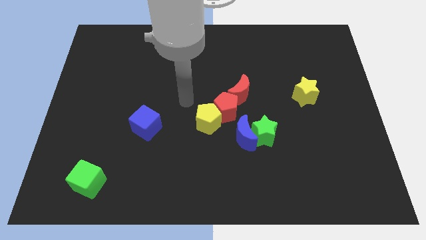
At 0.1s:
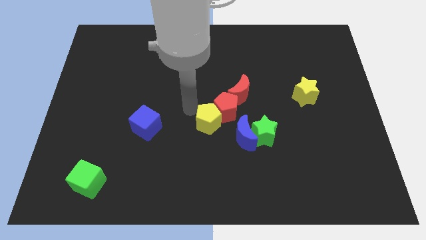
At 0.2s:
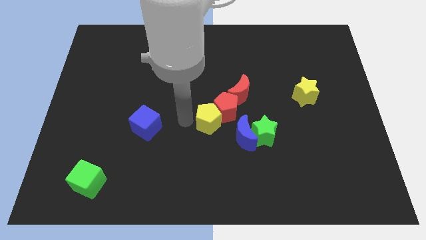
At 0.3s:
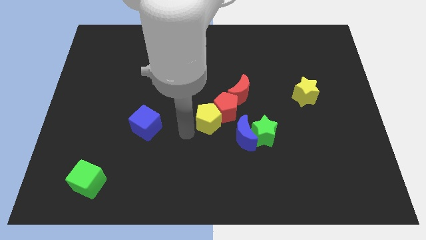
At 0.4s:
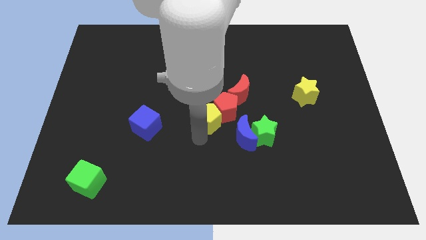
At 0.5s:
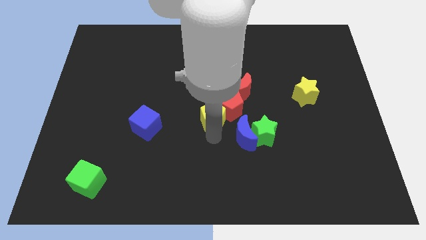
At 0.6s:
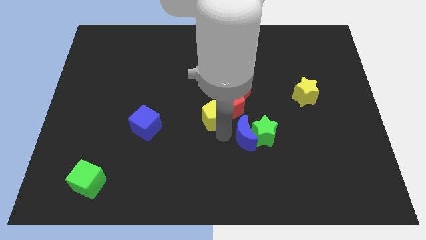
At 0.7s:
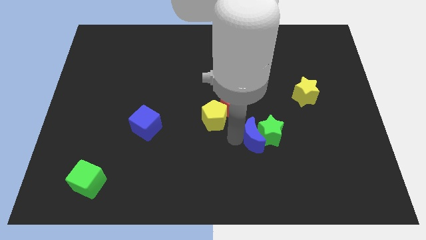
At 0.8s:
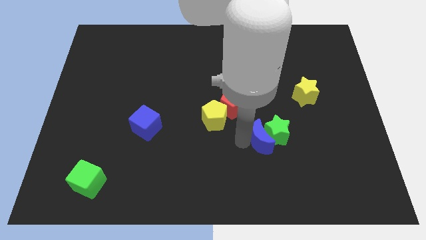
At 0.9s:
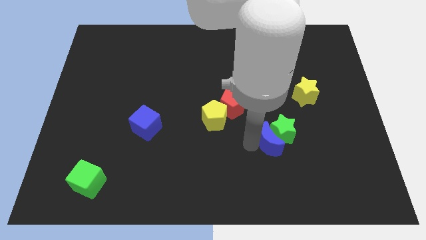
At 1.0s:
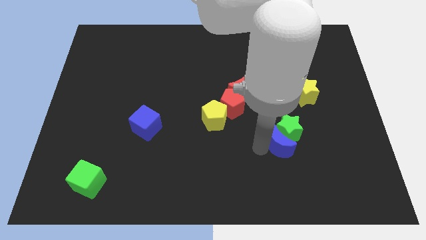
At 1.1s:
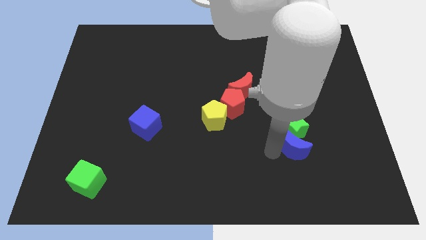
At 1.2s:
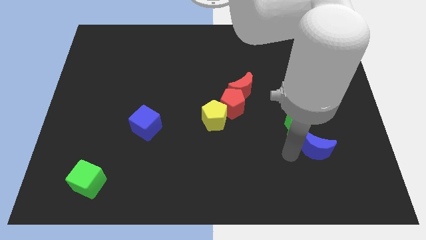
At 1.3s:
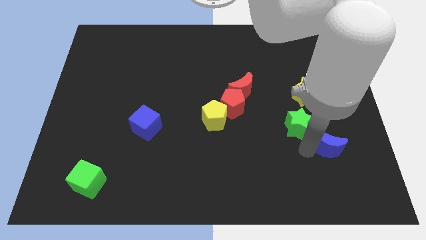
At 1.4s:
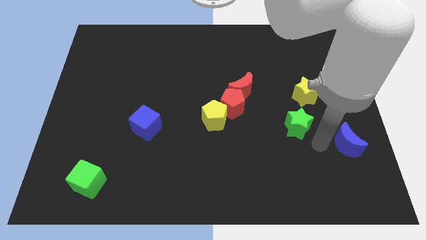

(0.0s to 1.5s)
pull the green star apart from the blue moon

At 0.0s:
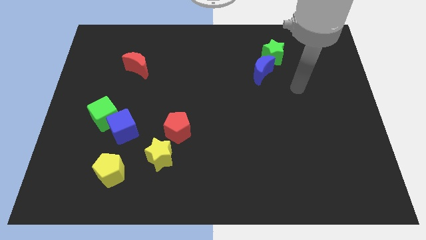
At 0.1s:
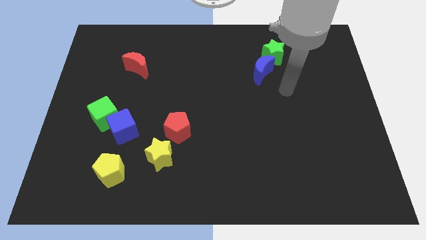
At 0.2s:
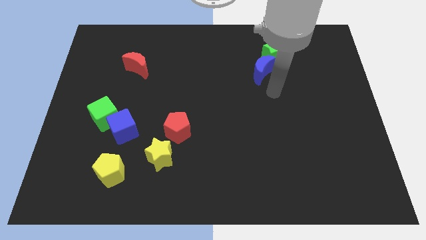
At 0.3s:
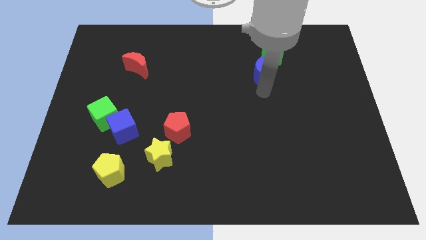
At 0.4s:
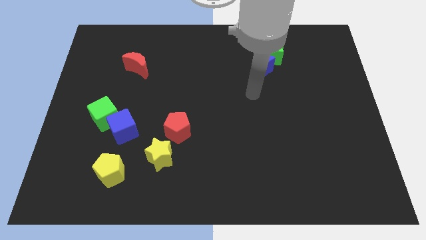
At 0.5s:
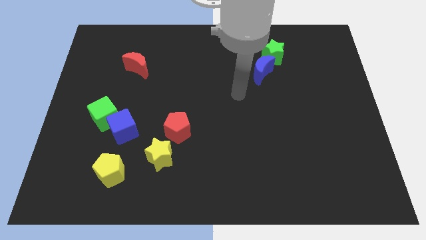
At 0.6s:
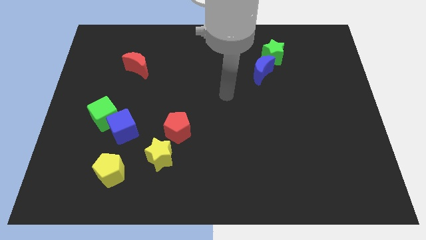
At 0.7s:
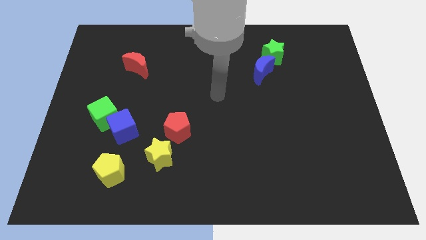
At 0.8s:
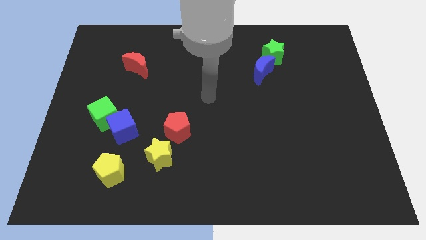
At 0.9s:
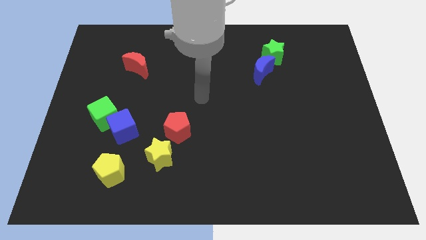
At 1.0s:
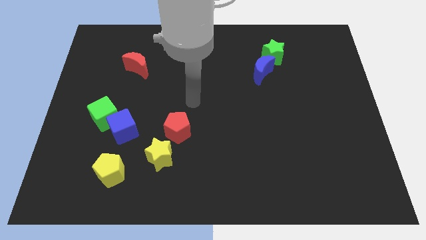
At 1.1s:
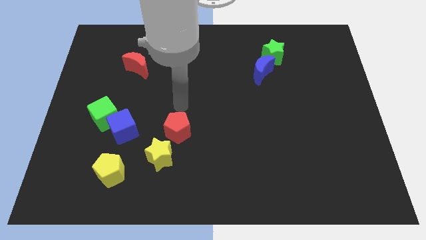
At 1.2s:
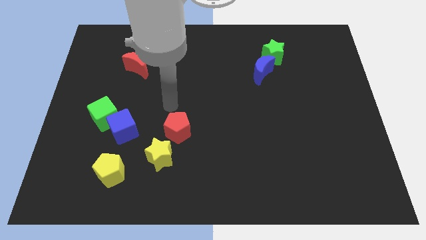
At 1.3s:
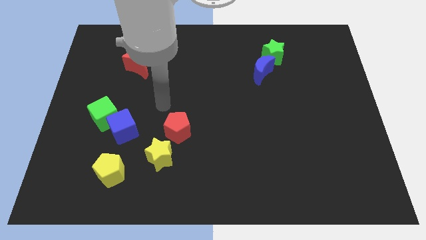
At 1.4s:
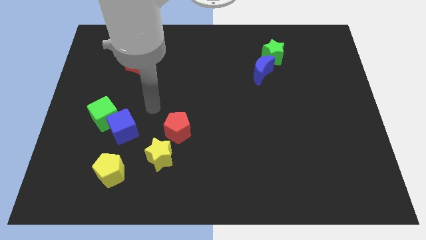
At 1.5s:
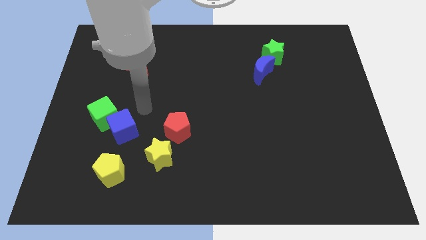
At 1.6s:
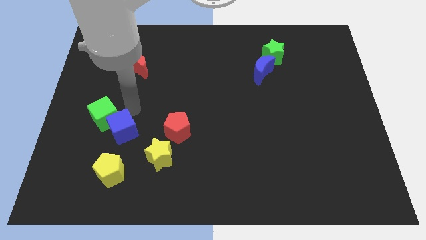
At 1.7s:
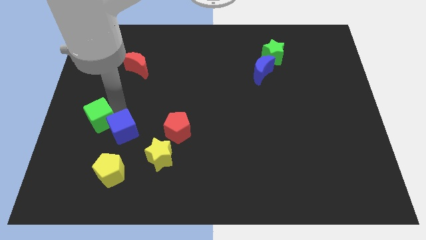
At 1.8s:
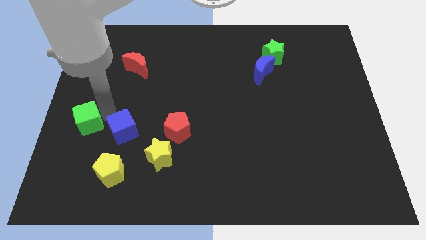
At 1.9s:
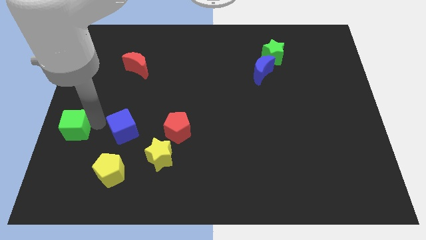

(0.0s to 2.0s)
pull the blue cube apart from the green cube

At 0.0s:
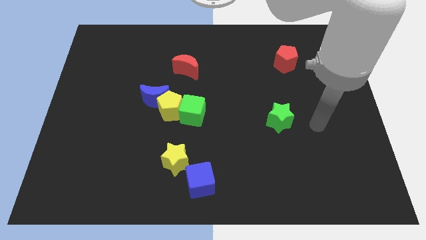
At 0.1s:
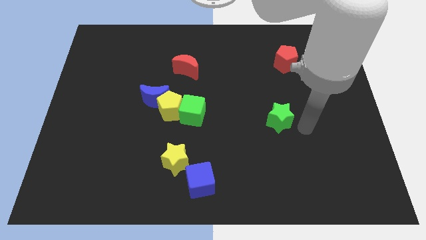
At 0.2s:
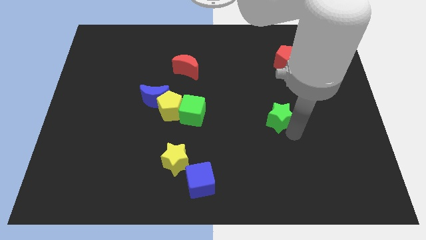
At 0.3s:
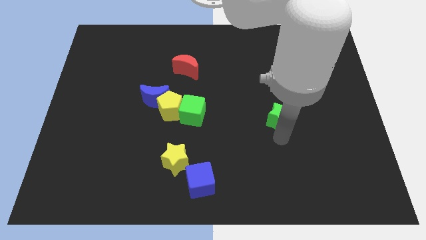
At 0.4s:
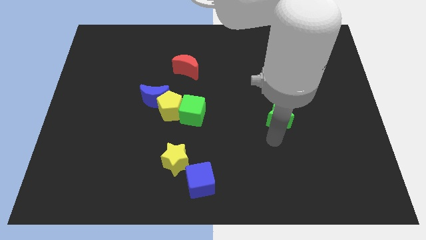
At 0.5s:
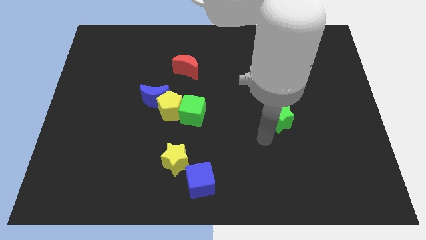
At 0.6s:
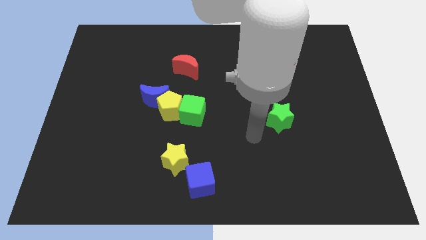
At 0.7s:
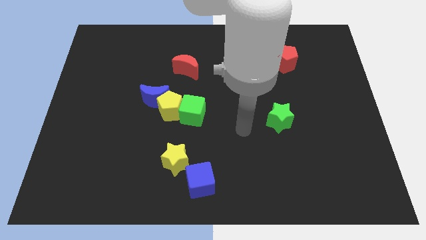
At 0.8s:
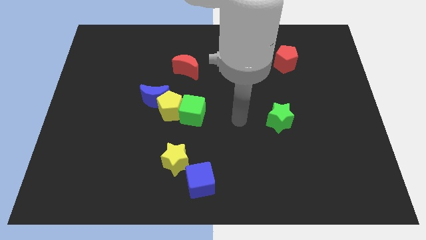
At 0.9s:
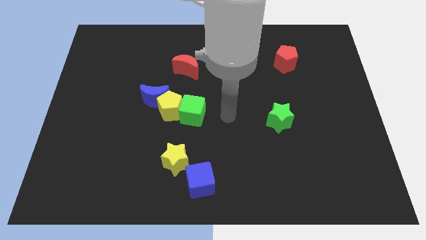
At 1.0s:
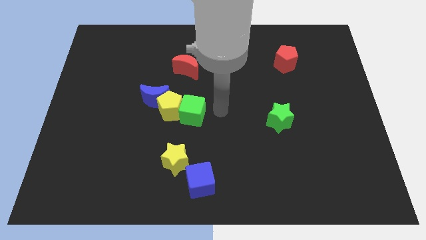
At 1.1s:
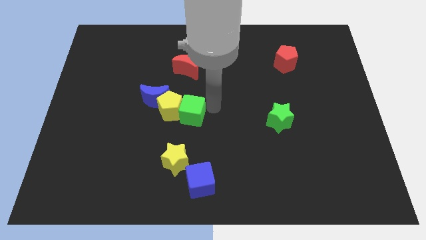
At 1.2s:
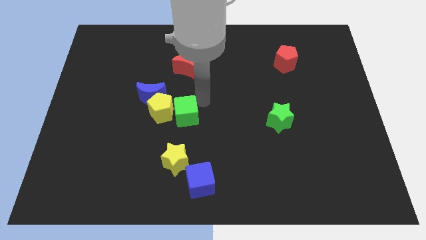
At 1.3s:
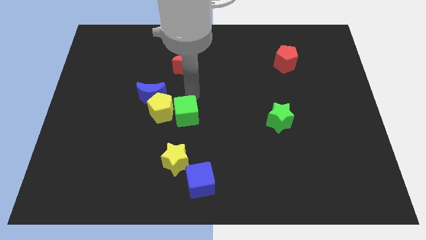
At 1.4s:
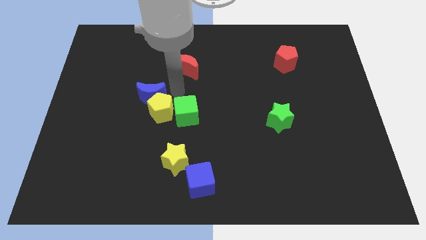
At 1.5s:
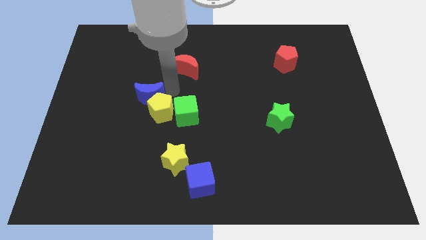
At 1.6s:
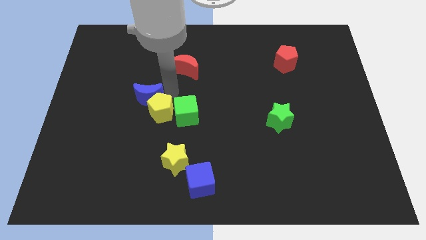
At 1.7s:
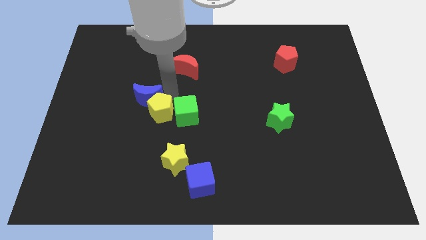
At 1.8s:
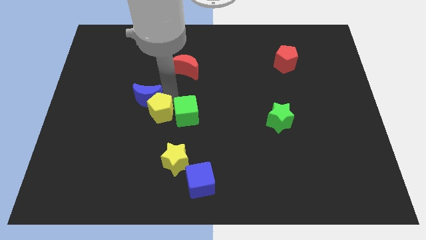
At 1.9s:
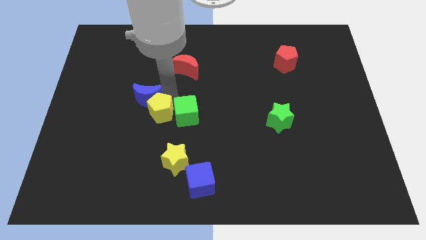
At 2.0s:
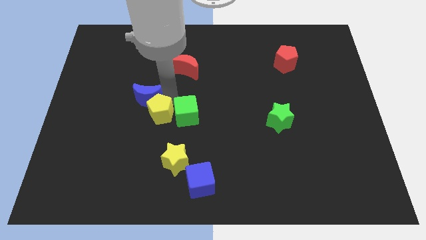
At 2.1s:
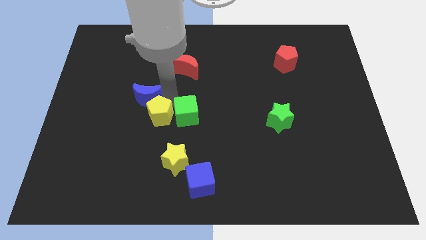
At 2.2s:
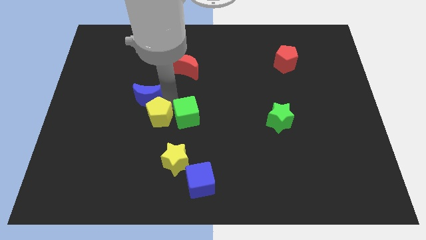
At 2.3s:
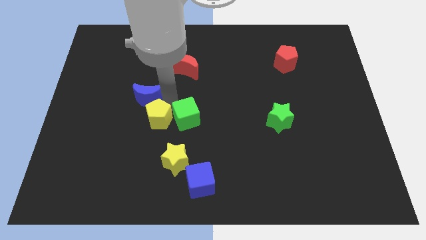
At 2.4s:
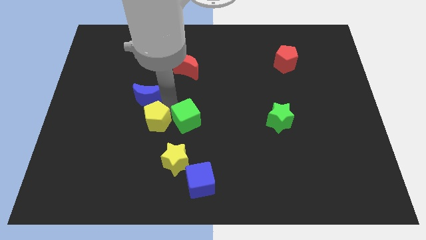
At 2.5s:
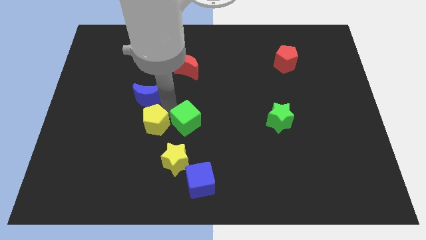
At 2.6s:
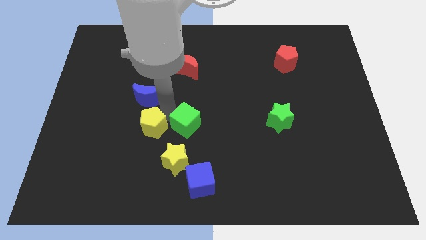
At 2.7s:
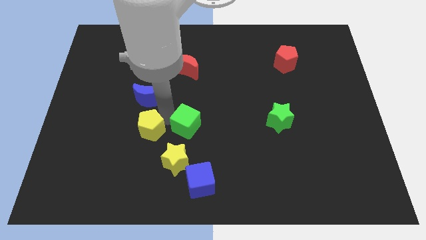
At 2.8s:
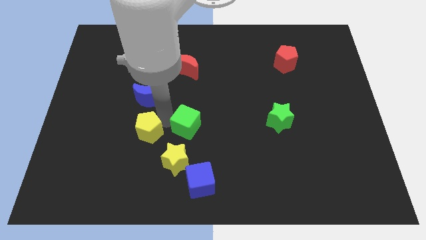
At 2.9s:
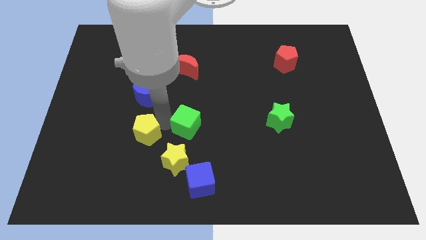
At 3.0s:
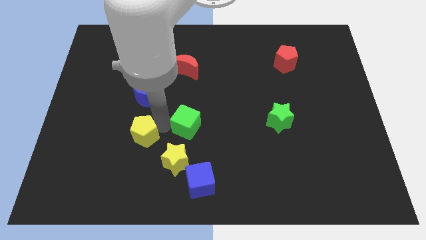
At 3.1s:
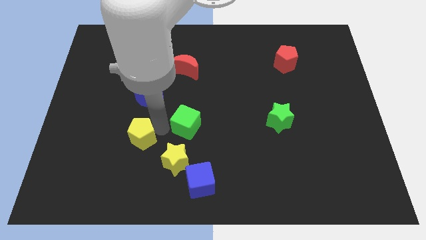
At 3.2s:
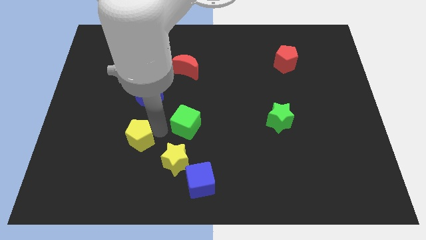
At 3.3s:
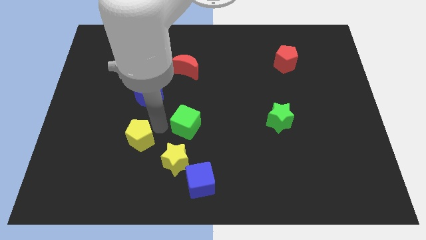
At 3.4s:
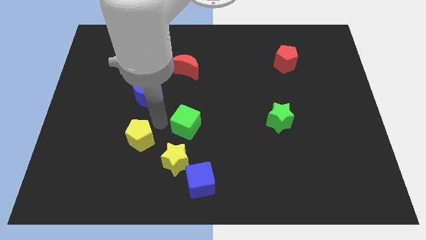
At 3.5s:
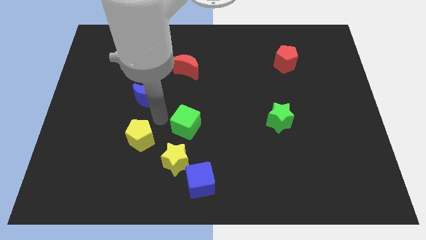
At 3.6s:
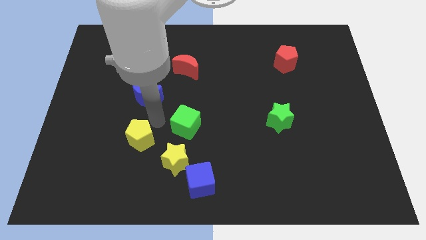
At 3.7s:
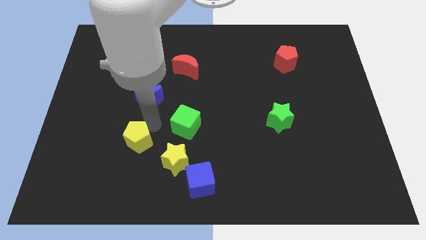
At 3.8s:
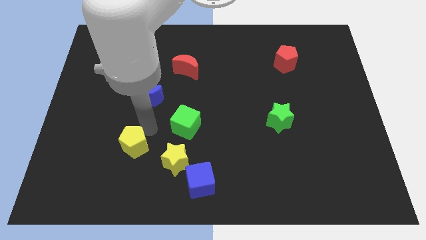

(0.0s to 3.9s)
separate the yellow pentagon from the blue moon and green cube

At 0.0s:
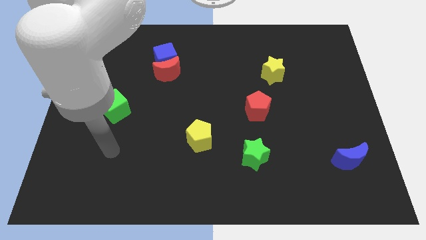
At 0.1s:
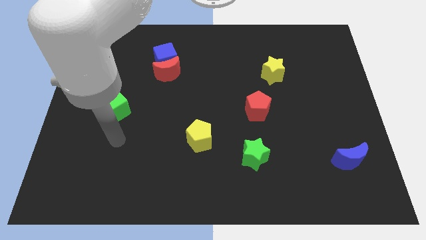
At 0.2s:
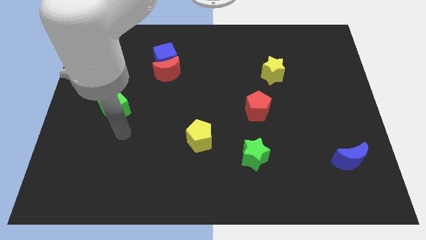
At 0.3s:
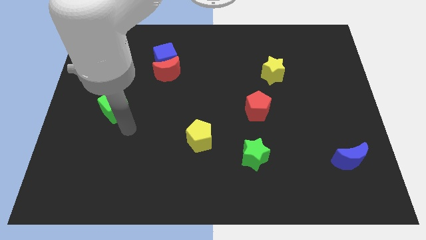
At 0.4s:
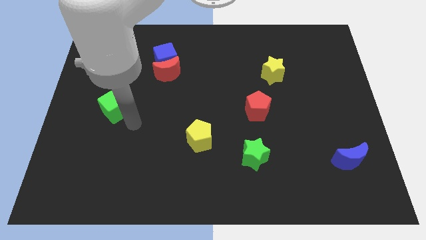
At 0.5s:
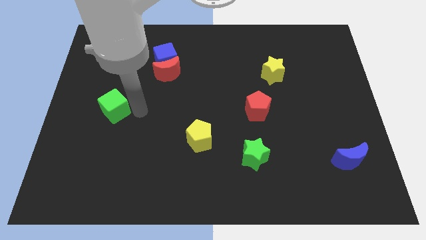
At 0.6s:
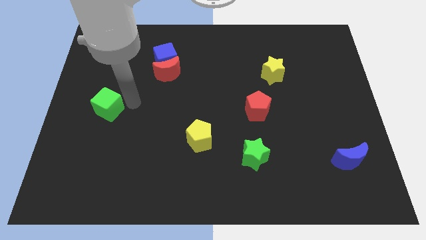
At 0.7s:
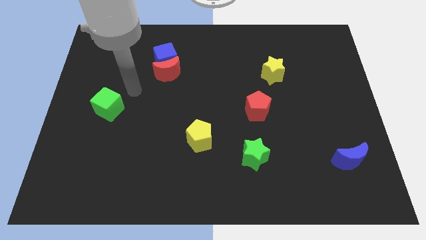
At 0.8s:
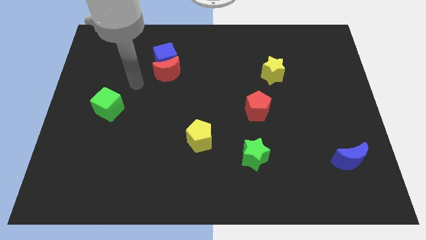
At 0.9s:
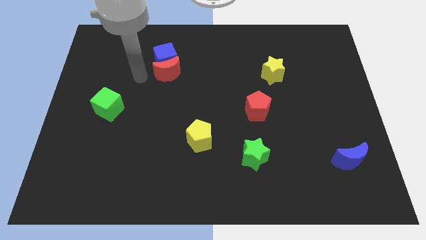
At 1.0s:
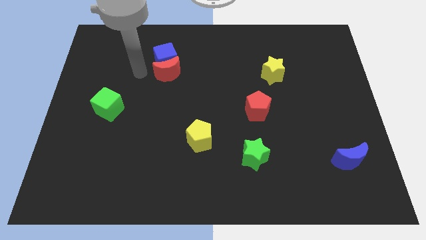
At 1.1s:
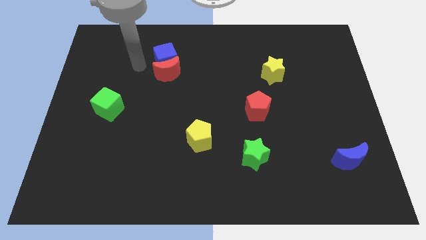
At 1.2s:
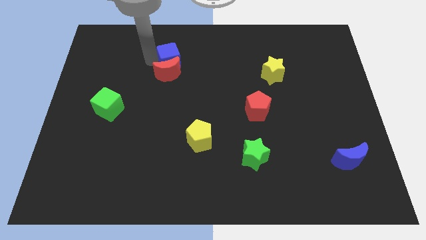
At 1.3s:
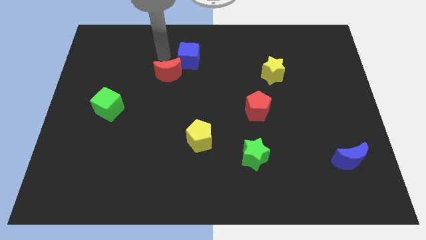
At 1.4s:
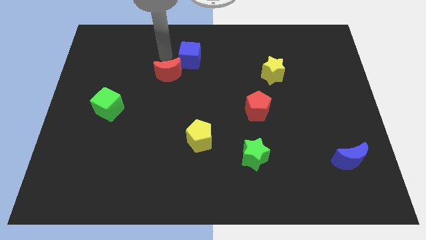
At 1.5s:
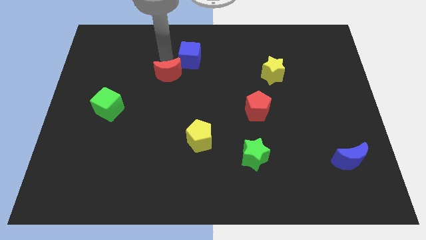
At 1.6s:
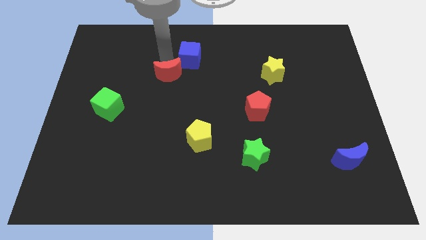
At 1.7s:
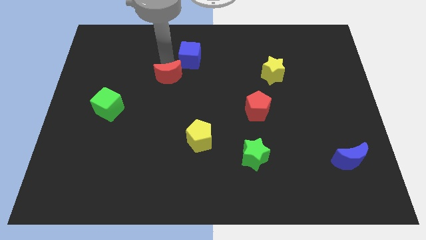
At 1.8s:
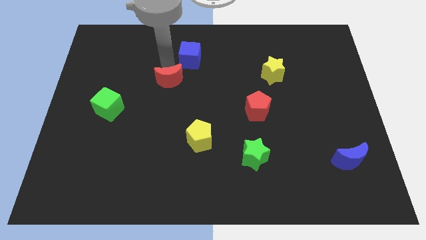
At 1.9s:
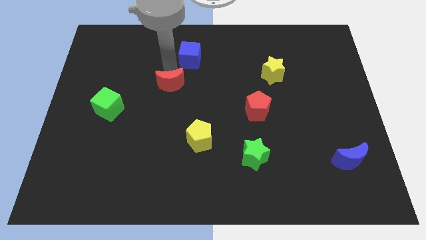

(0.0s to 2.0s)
pull the red moon apart from the blue cube

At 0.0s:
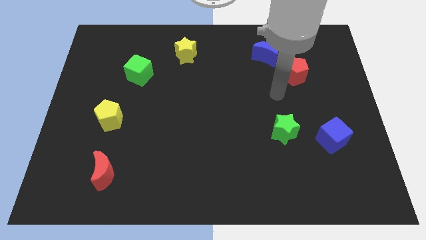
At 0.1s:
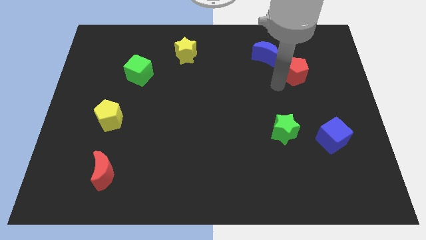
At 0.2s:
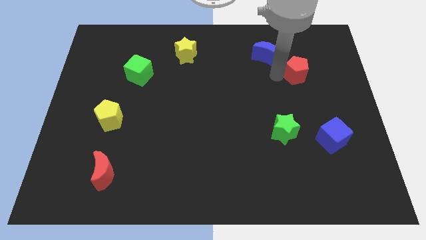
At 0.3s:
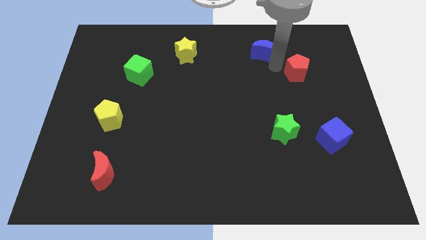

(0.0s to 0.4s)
separate the red pentagon from the blue moon
